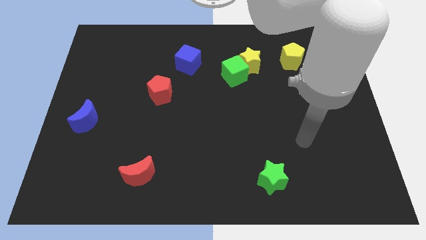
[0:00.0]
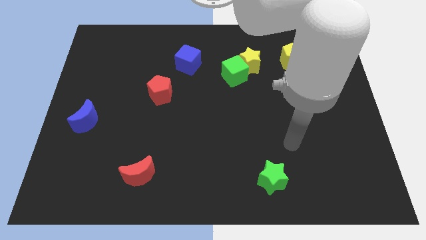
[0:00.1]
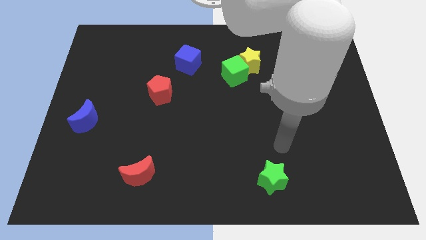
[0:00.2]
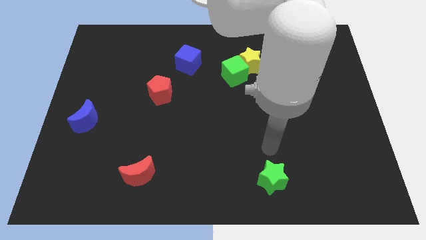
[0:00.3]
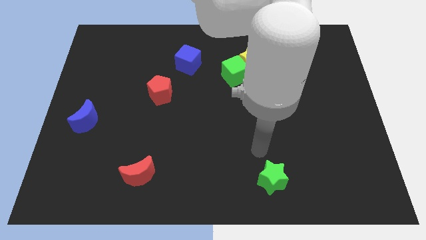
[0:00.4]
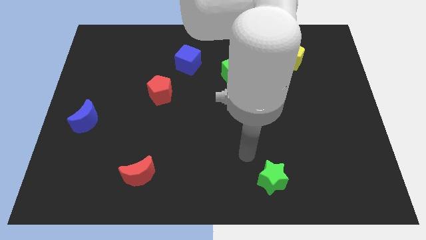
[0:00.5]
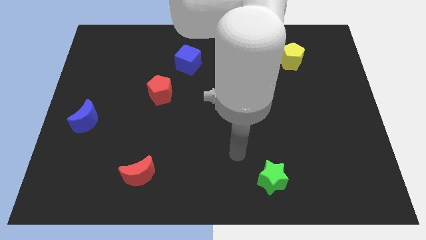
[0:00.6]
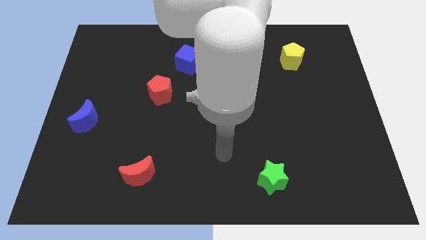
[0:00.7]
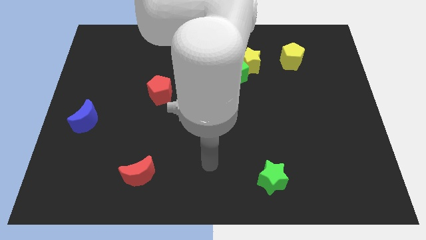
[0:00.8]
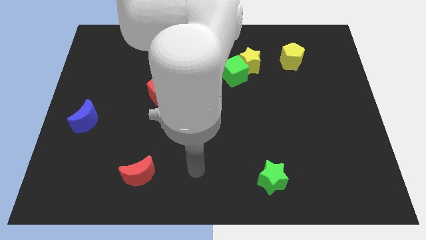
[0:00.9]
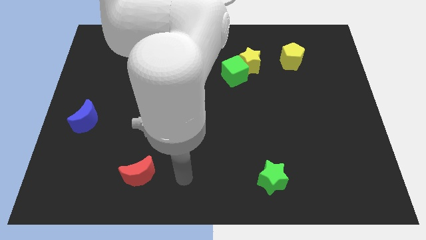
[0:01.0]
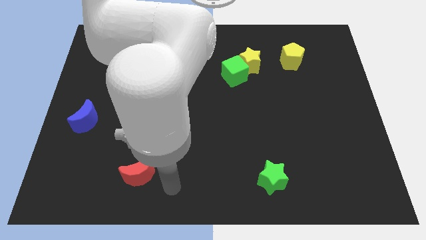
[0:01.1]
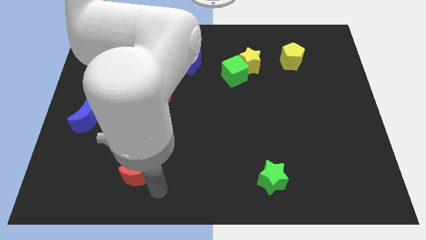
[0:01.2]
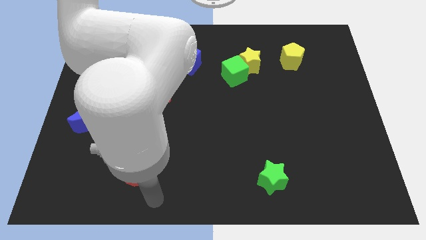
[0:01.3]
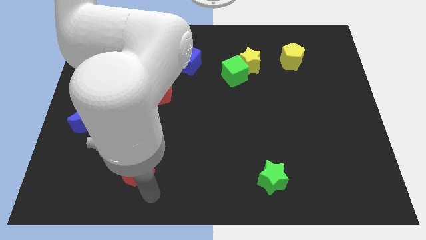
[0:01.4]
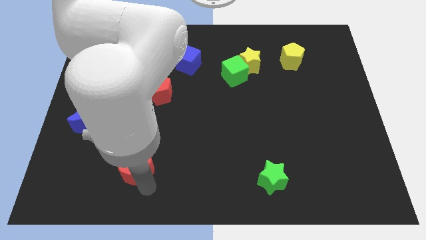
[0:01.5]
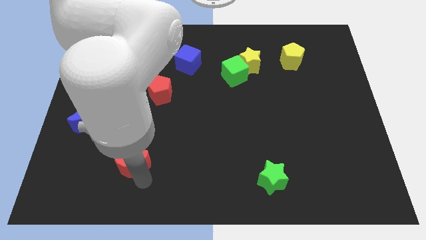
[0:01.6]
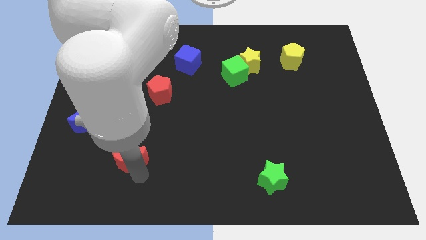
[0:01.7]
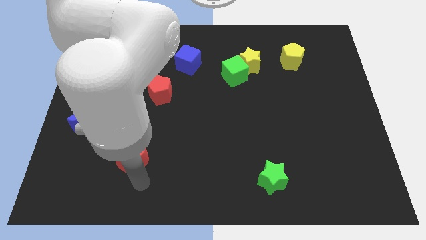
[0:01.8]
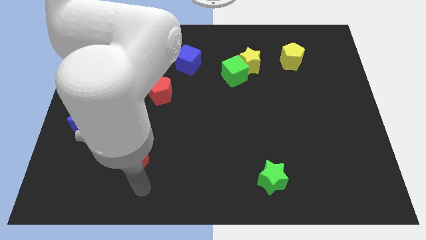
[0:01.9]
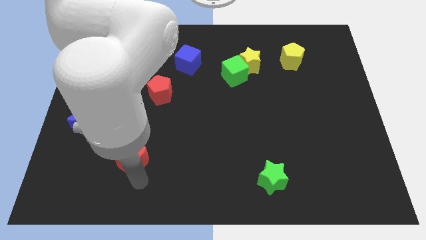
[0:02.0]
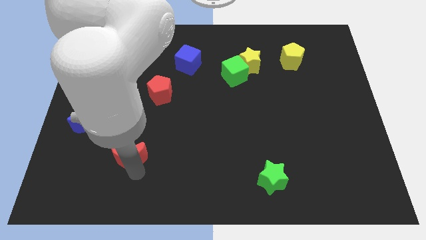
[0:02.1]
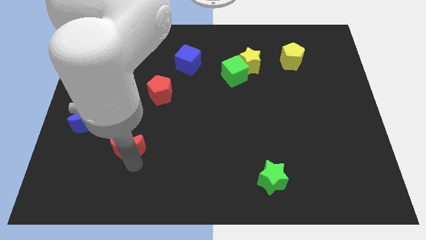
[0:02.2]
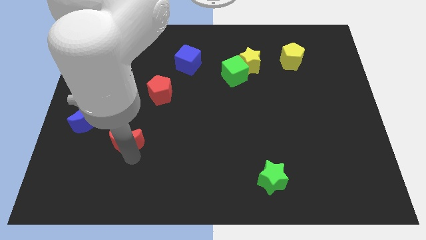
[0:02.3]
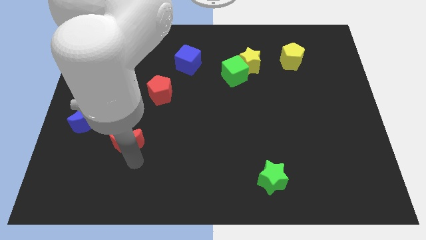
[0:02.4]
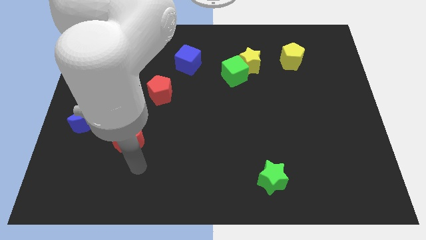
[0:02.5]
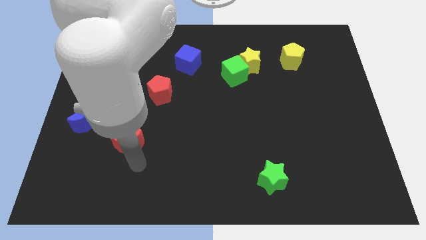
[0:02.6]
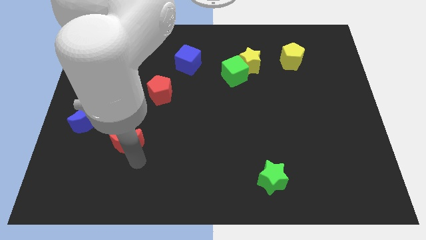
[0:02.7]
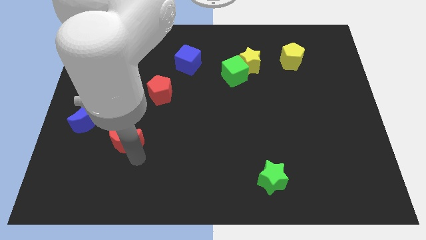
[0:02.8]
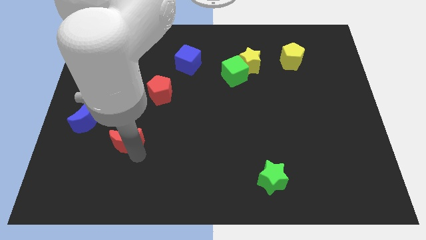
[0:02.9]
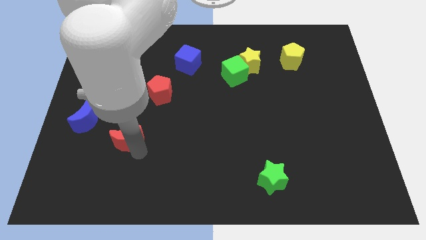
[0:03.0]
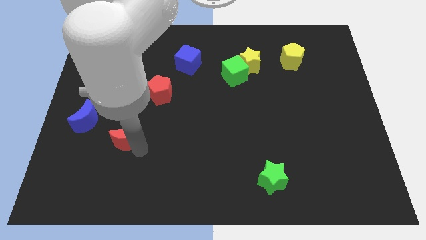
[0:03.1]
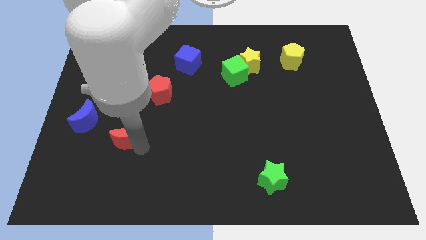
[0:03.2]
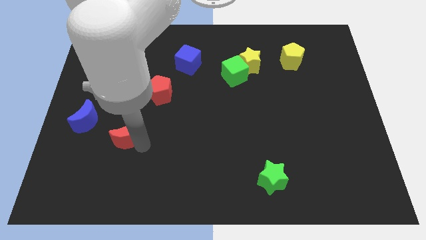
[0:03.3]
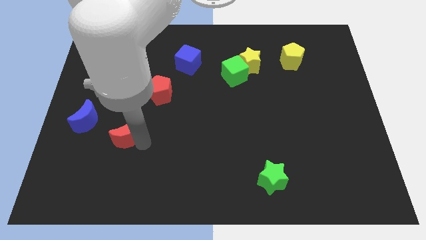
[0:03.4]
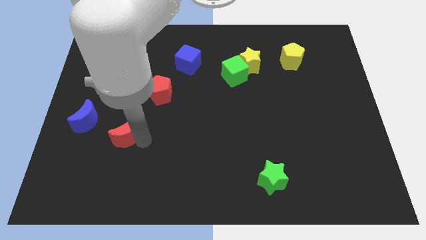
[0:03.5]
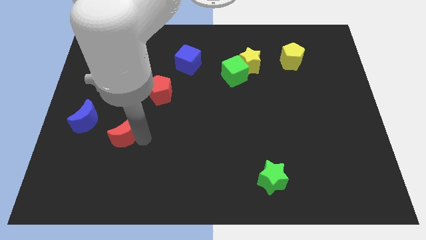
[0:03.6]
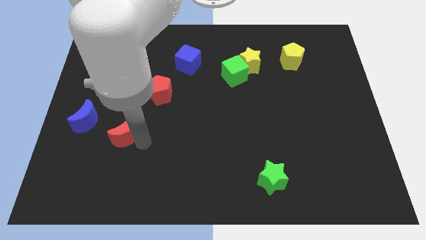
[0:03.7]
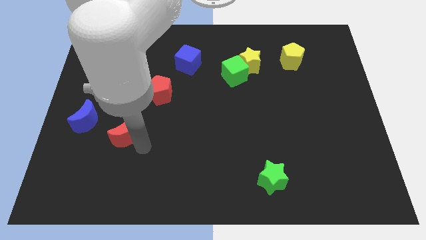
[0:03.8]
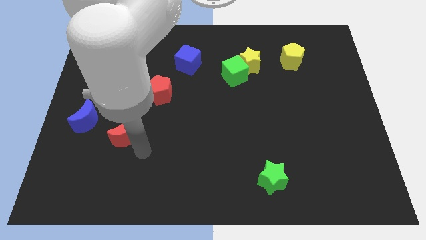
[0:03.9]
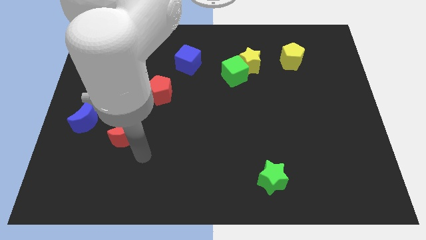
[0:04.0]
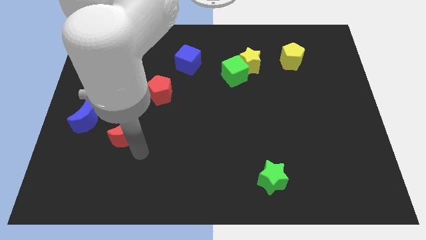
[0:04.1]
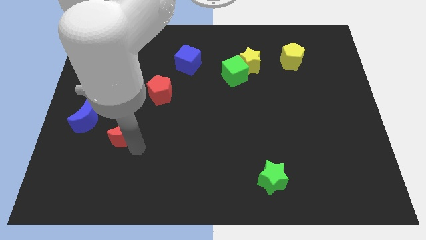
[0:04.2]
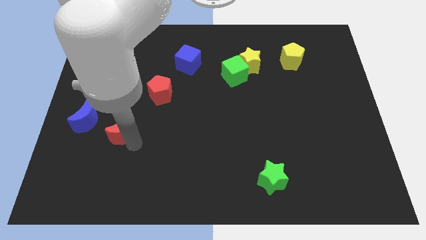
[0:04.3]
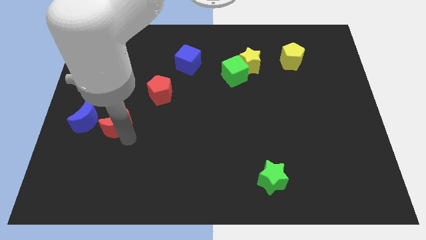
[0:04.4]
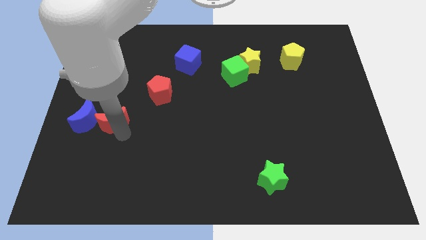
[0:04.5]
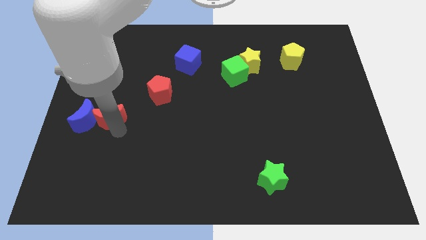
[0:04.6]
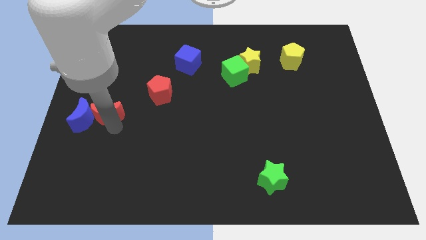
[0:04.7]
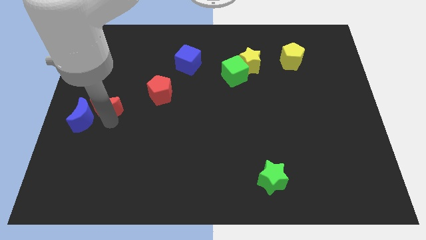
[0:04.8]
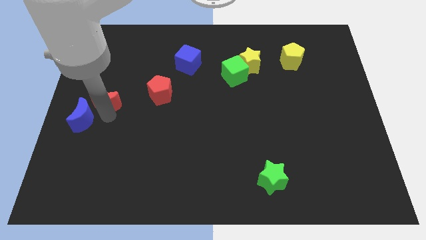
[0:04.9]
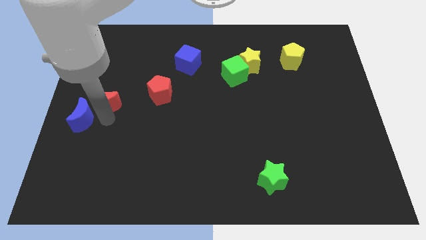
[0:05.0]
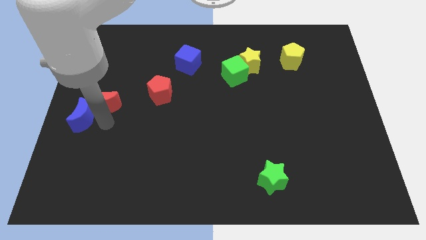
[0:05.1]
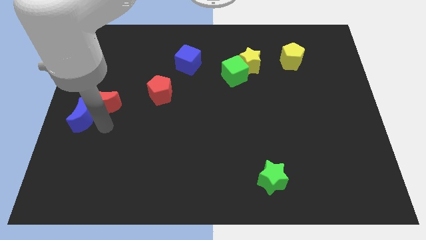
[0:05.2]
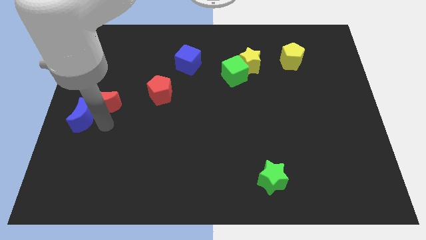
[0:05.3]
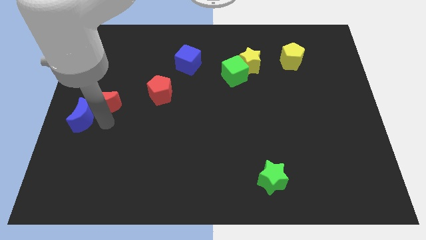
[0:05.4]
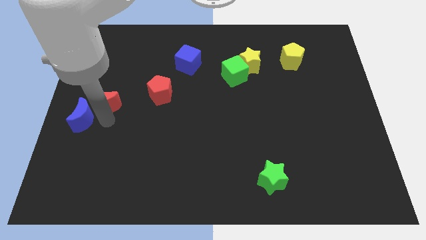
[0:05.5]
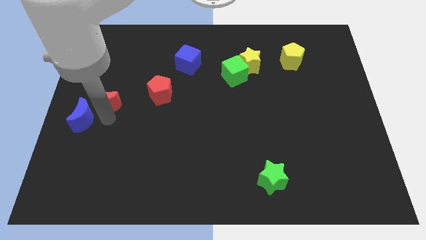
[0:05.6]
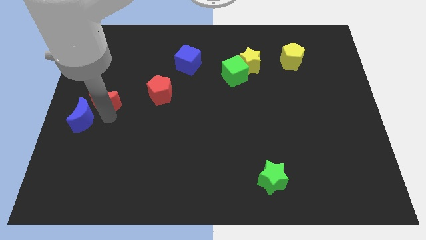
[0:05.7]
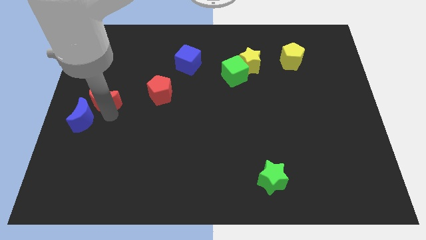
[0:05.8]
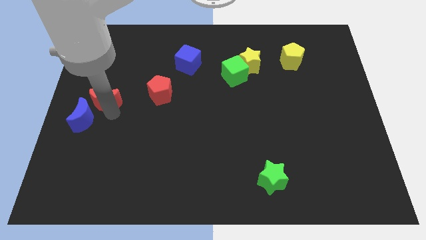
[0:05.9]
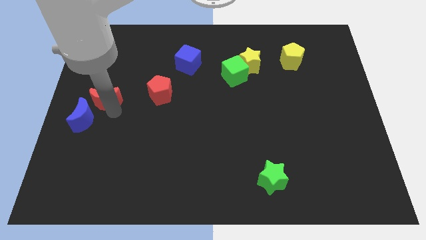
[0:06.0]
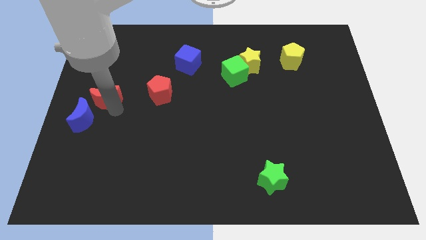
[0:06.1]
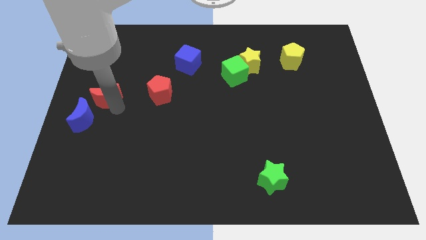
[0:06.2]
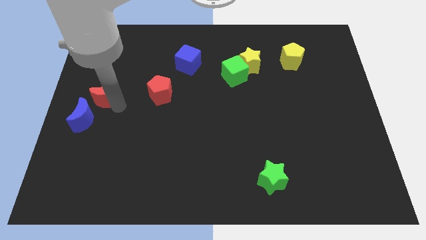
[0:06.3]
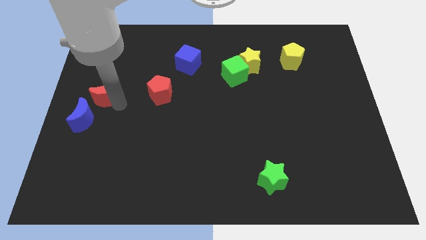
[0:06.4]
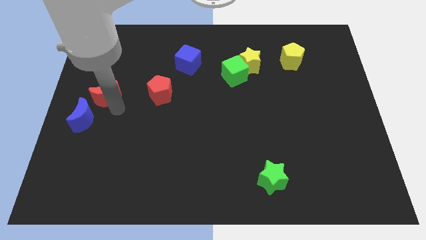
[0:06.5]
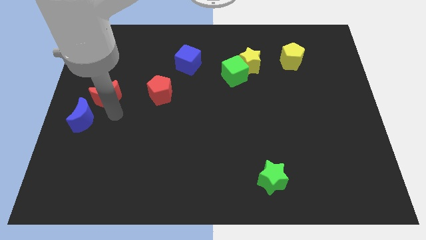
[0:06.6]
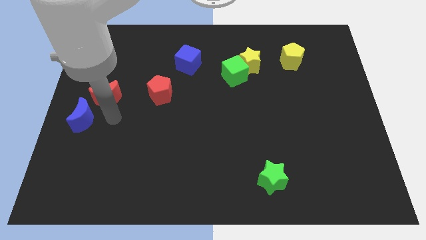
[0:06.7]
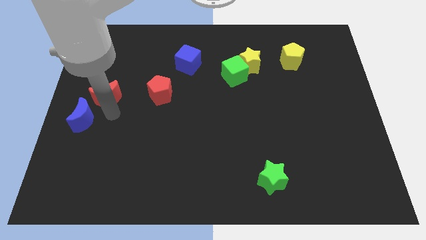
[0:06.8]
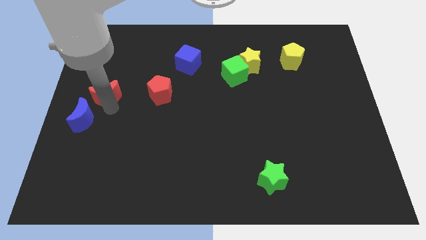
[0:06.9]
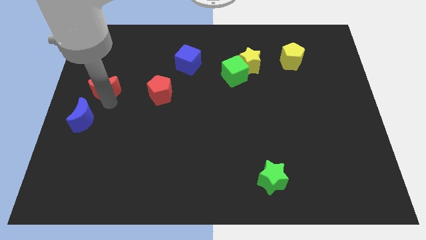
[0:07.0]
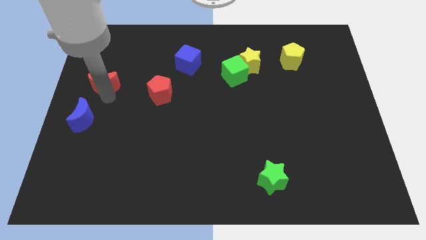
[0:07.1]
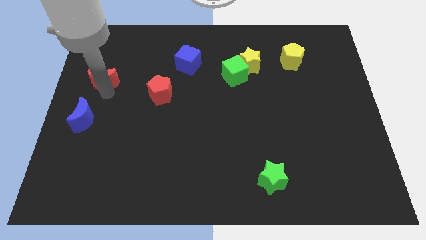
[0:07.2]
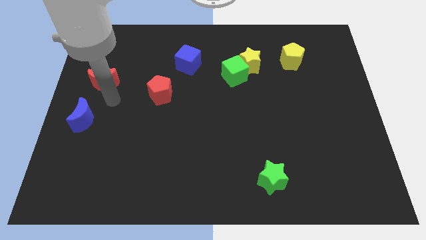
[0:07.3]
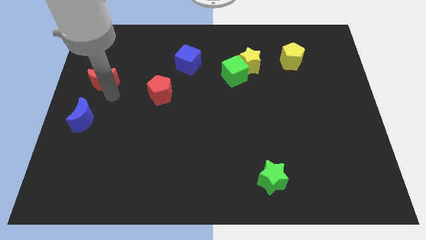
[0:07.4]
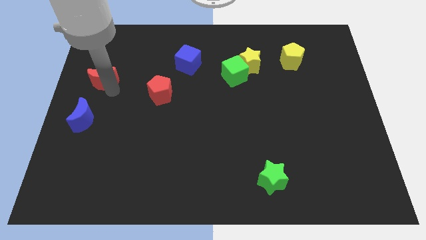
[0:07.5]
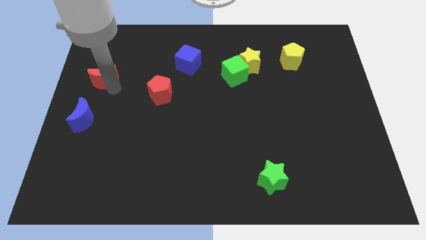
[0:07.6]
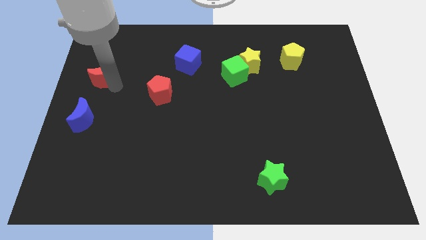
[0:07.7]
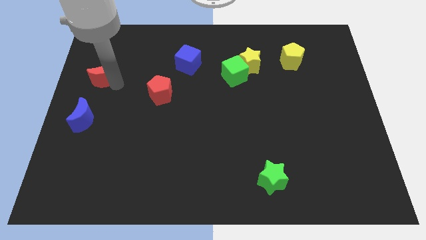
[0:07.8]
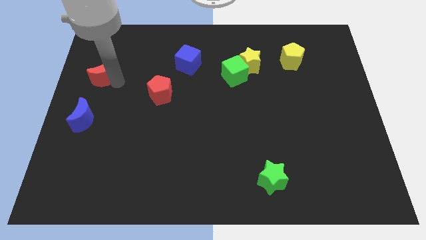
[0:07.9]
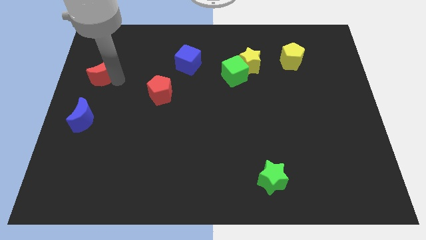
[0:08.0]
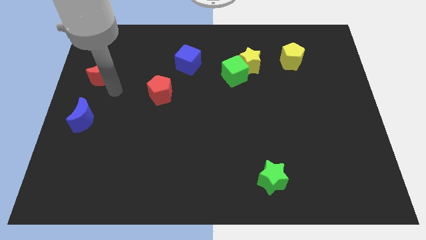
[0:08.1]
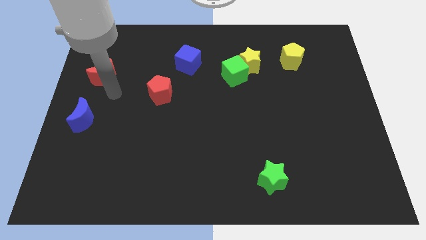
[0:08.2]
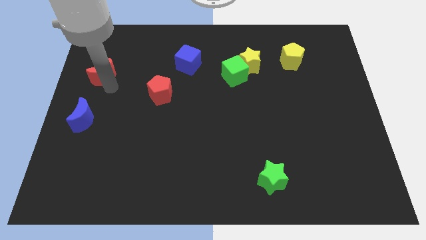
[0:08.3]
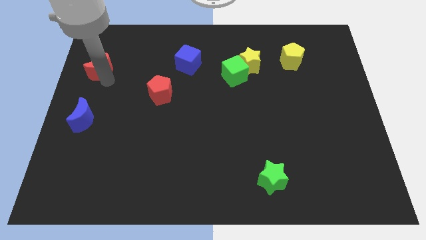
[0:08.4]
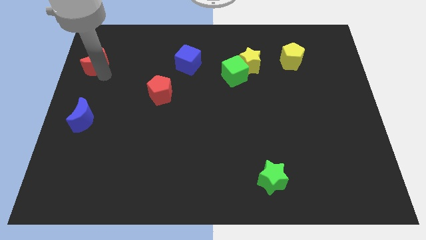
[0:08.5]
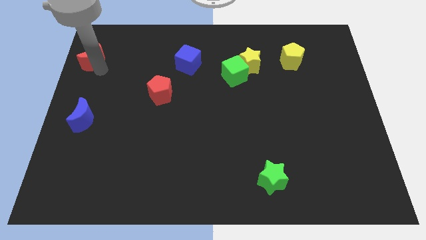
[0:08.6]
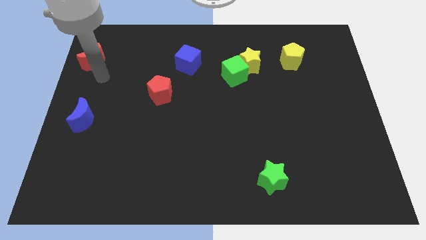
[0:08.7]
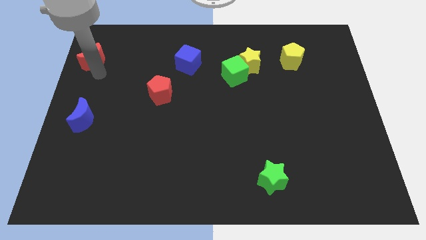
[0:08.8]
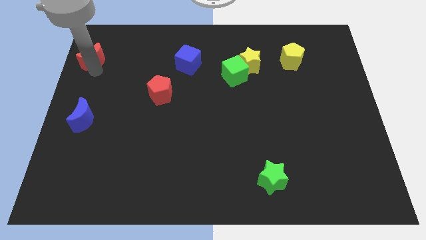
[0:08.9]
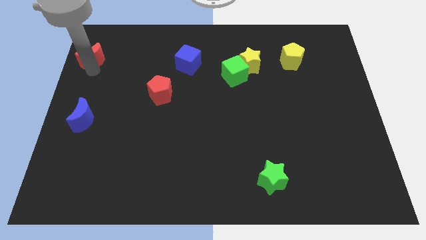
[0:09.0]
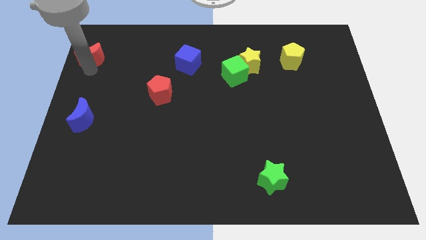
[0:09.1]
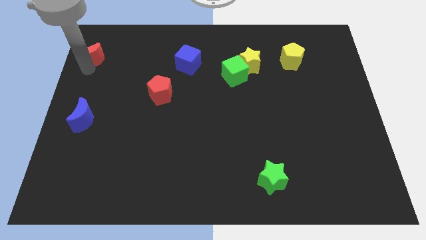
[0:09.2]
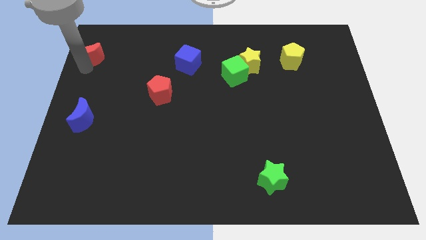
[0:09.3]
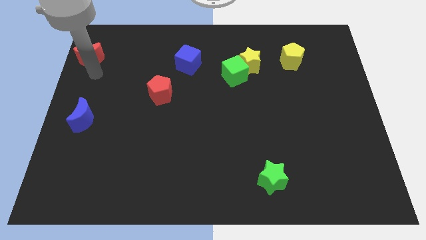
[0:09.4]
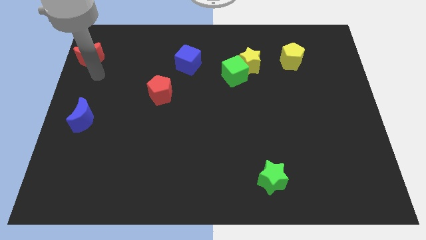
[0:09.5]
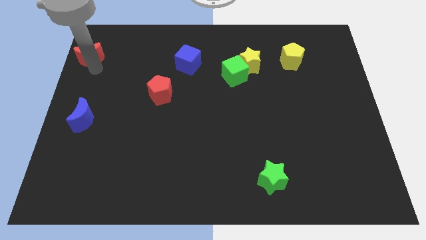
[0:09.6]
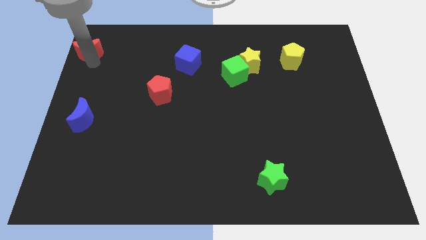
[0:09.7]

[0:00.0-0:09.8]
put the red moon to the top left
